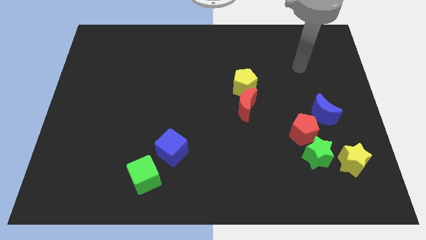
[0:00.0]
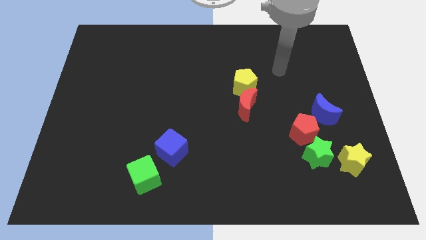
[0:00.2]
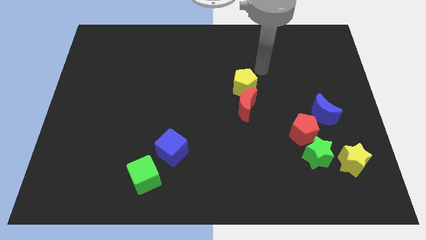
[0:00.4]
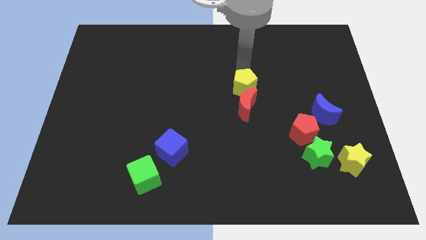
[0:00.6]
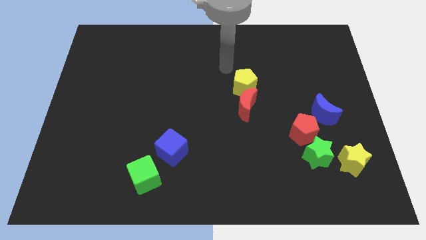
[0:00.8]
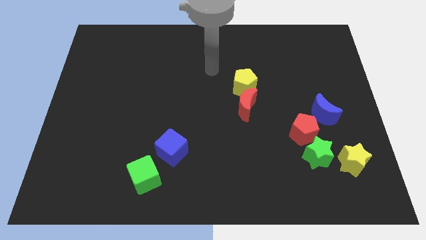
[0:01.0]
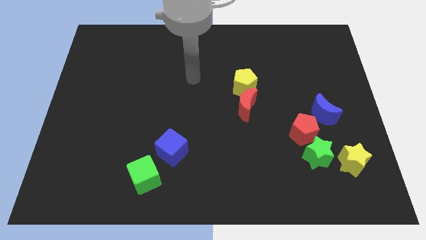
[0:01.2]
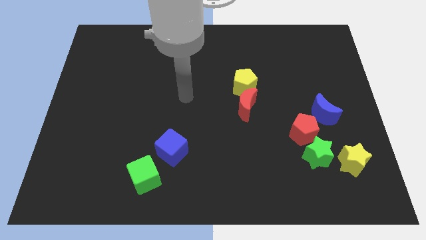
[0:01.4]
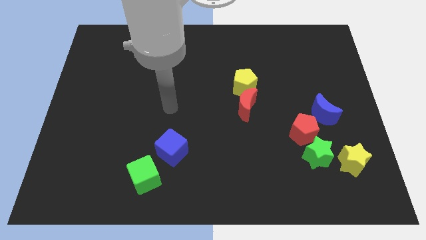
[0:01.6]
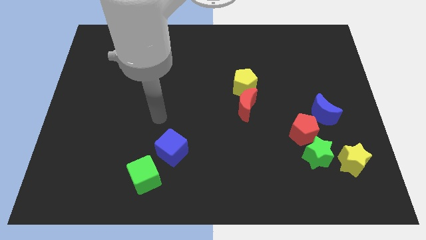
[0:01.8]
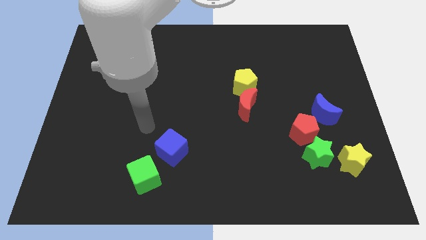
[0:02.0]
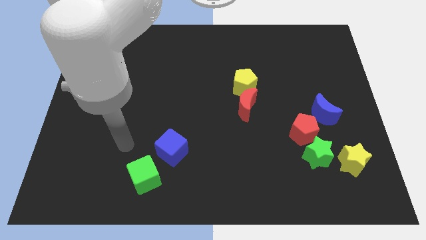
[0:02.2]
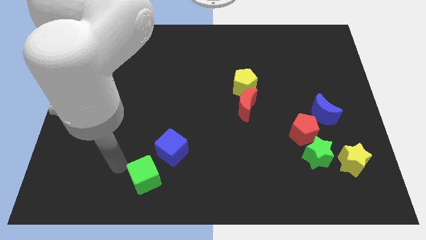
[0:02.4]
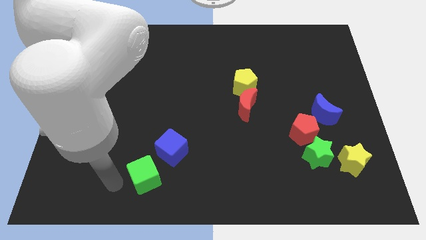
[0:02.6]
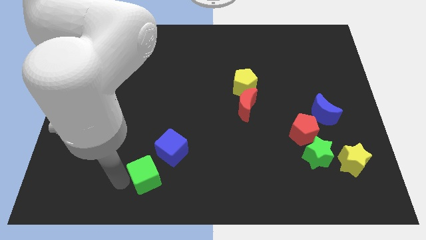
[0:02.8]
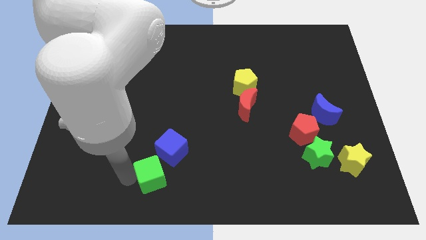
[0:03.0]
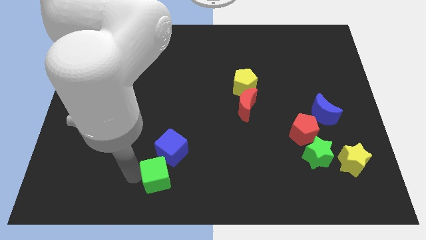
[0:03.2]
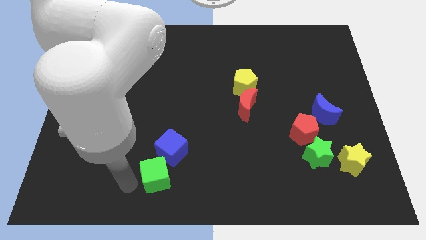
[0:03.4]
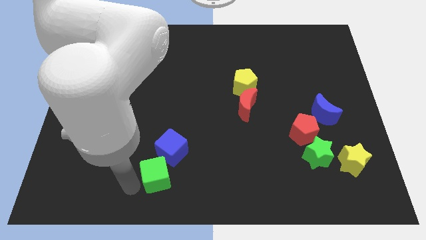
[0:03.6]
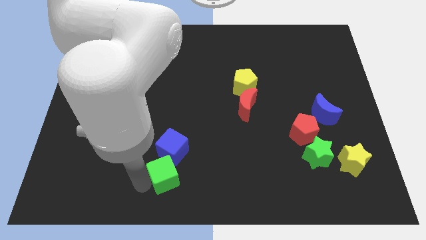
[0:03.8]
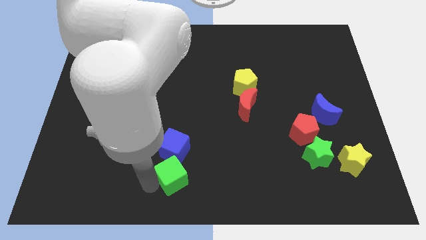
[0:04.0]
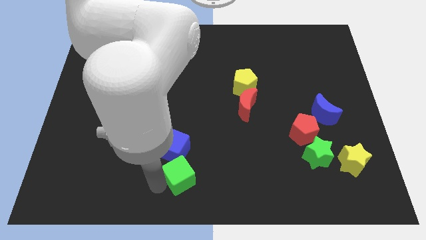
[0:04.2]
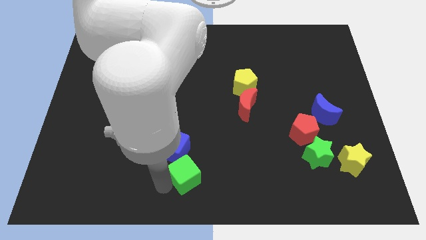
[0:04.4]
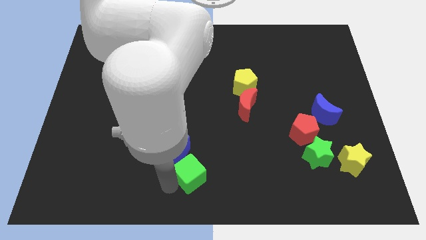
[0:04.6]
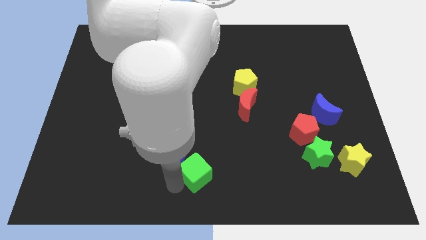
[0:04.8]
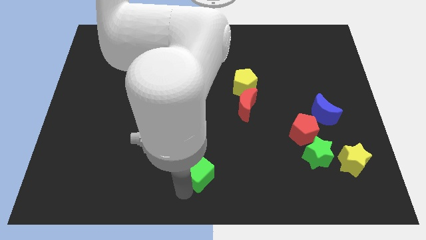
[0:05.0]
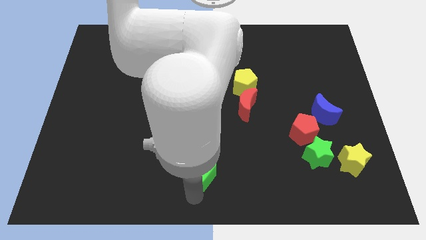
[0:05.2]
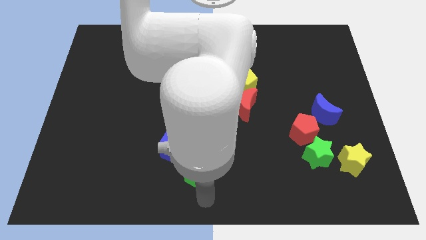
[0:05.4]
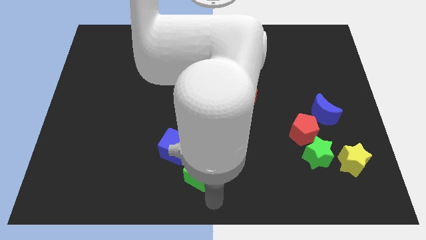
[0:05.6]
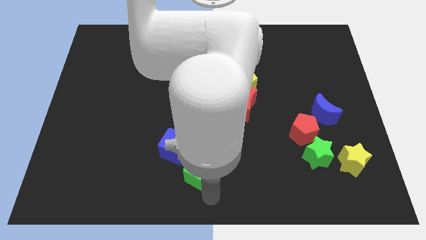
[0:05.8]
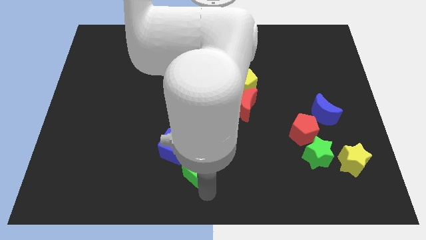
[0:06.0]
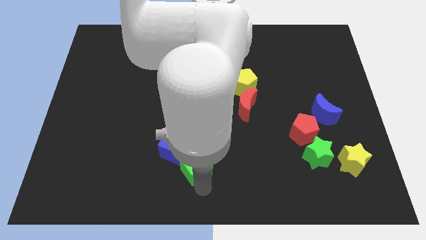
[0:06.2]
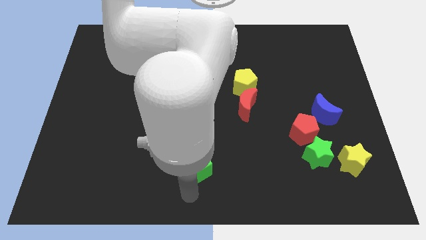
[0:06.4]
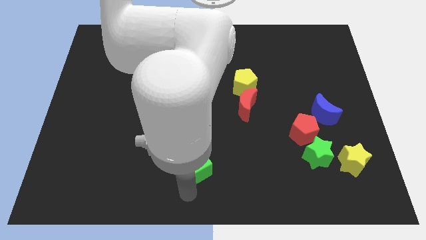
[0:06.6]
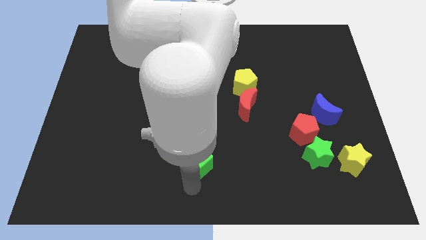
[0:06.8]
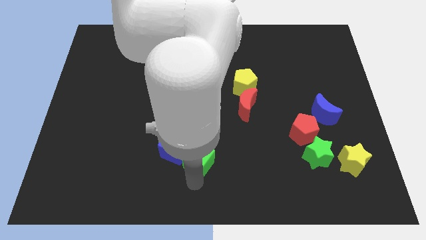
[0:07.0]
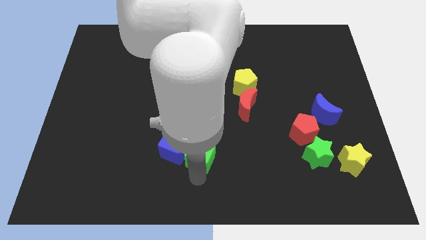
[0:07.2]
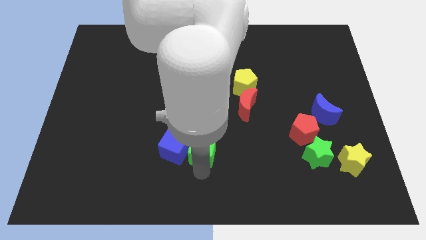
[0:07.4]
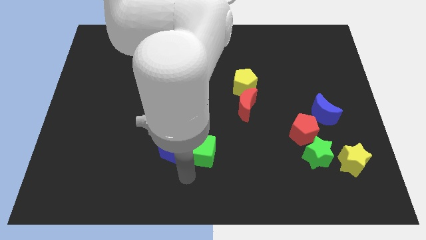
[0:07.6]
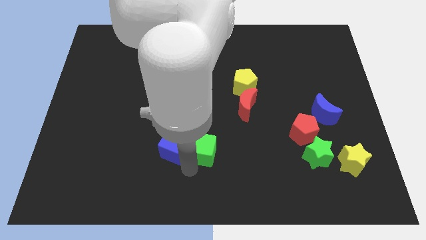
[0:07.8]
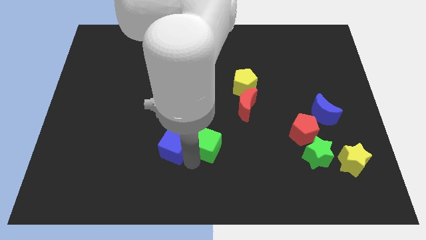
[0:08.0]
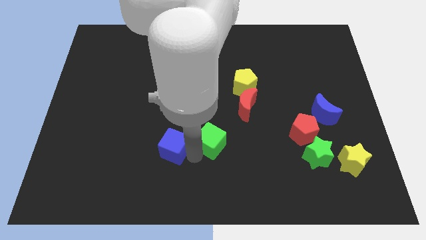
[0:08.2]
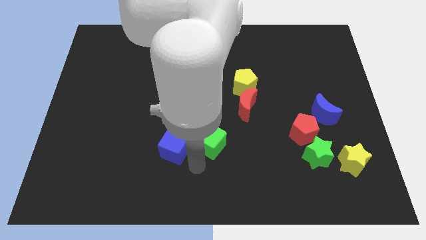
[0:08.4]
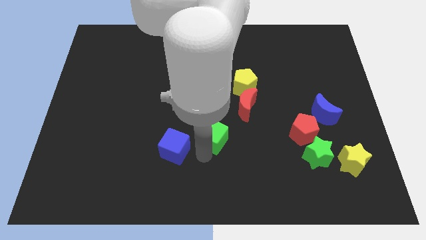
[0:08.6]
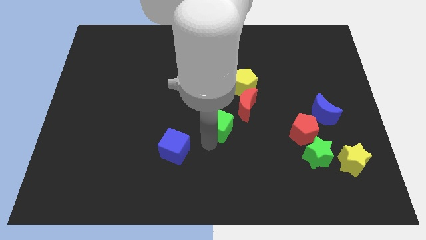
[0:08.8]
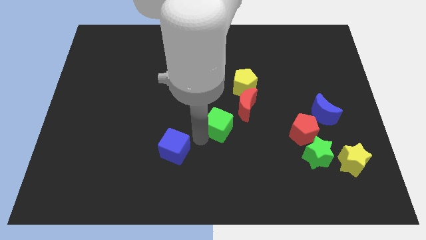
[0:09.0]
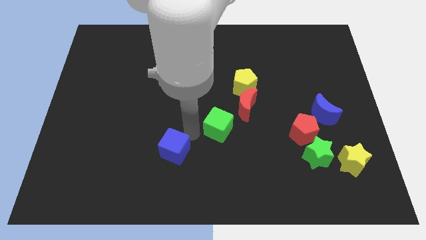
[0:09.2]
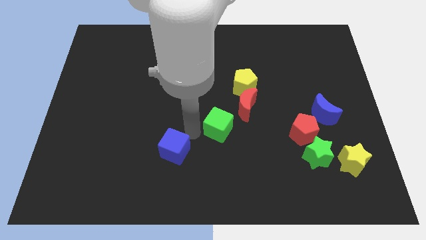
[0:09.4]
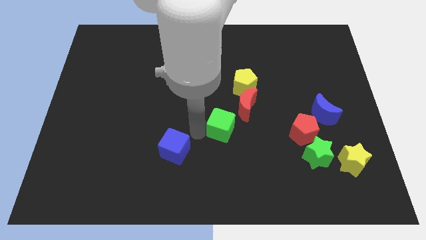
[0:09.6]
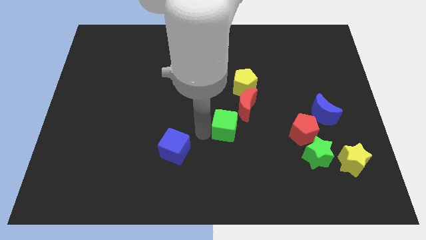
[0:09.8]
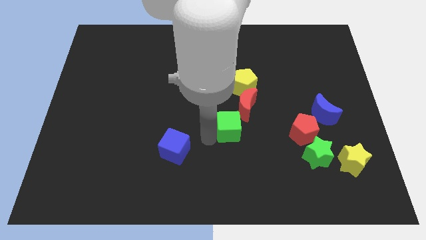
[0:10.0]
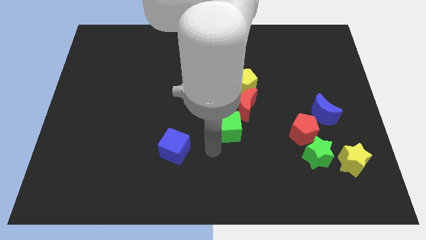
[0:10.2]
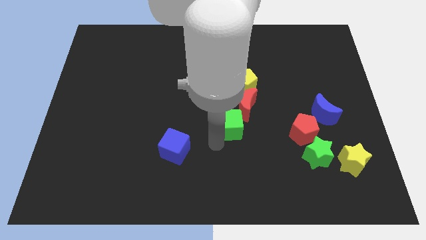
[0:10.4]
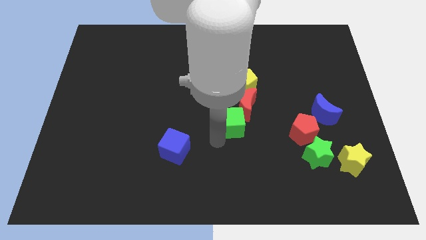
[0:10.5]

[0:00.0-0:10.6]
push the green cube close to the red moon

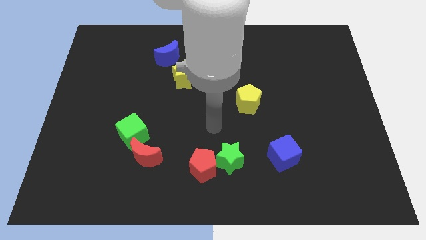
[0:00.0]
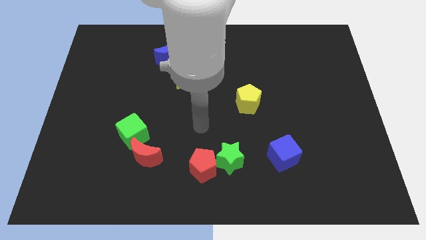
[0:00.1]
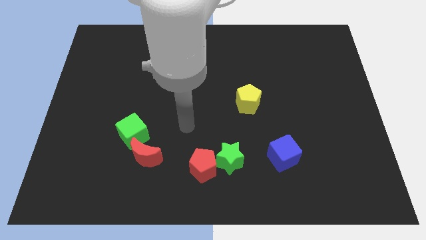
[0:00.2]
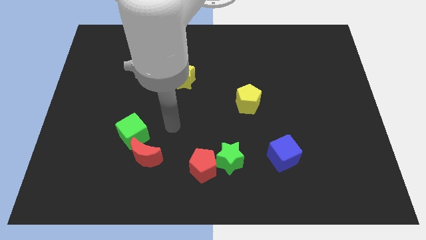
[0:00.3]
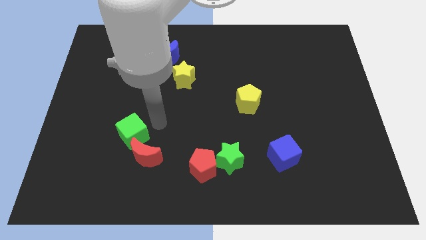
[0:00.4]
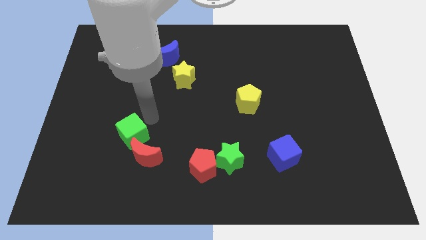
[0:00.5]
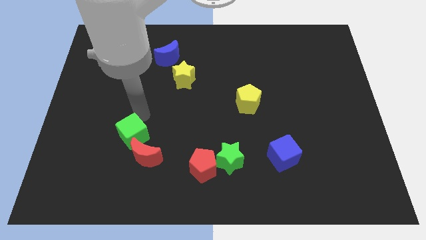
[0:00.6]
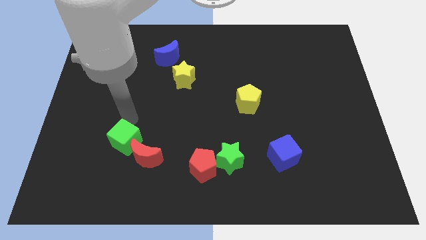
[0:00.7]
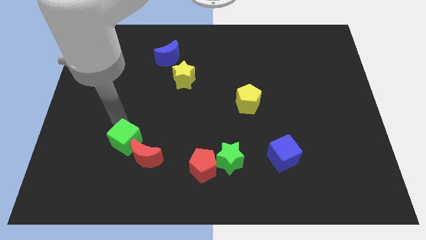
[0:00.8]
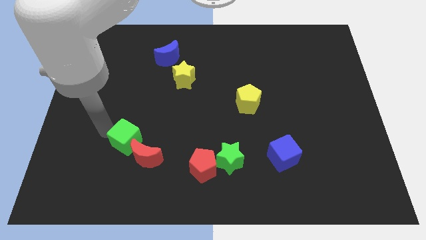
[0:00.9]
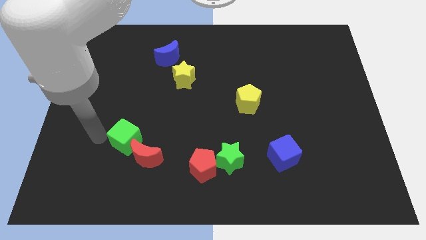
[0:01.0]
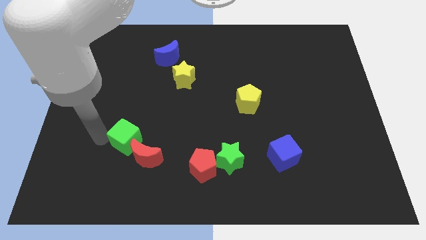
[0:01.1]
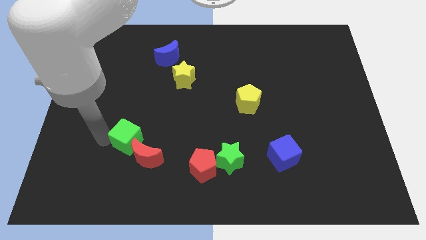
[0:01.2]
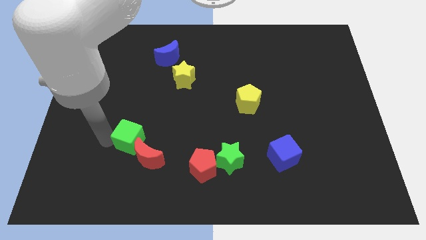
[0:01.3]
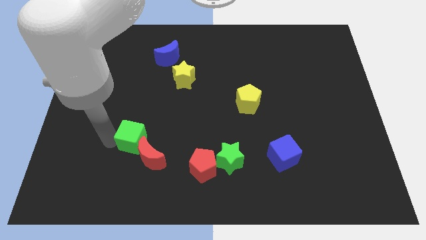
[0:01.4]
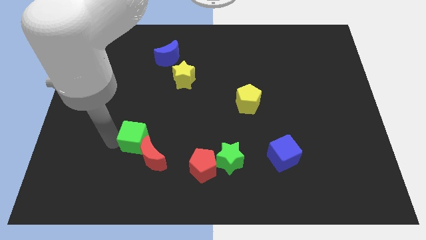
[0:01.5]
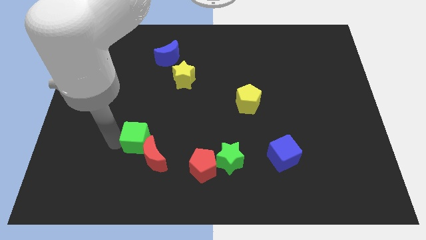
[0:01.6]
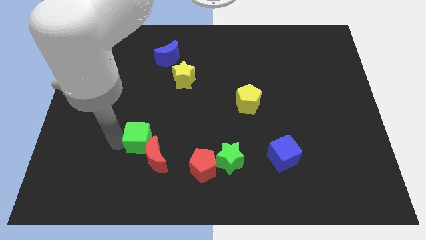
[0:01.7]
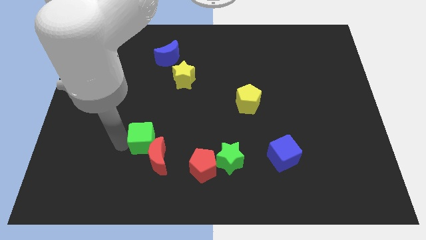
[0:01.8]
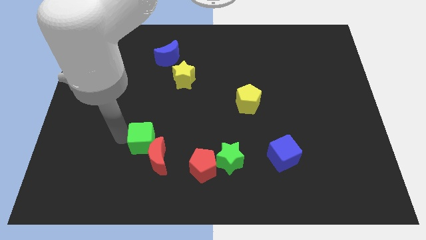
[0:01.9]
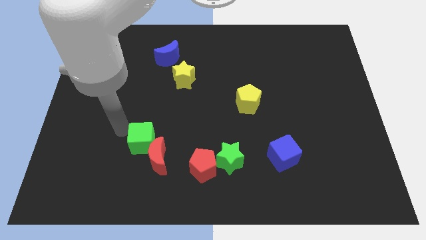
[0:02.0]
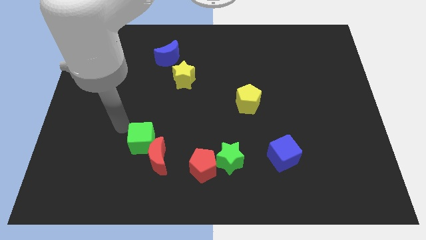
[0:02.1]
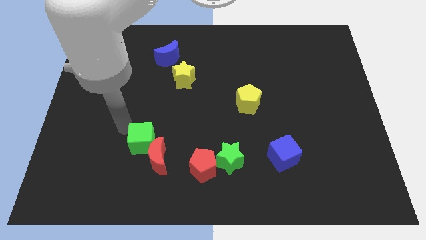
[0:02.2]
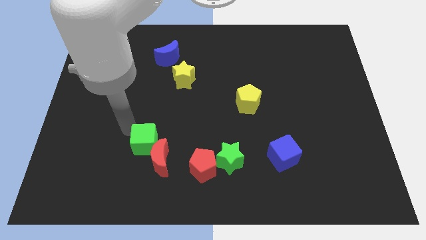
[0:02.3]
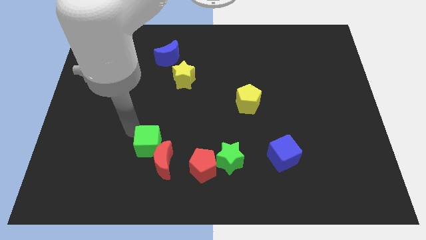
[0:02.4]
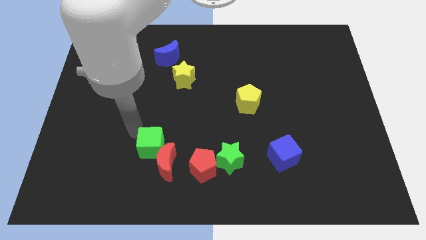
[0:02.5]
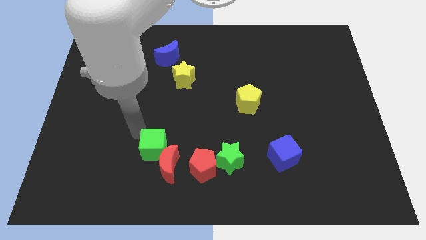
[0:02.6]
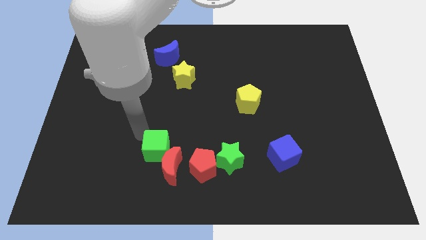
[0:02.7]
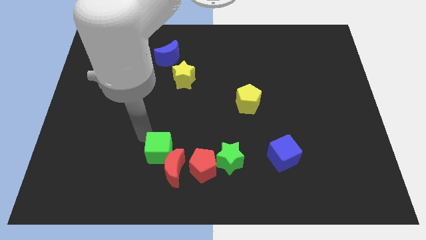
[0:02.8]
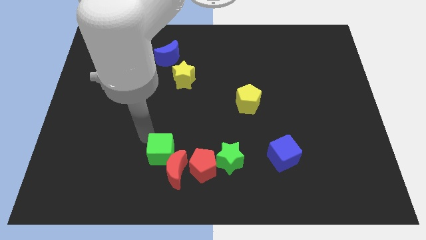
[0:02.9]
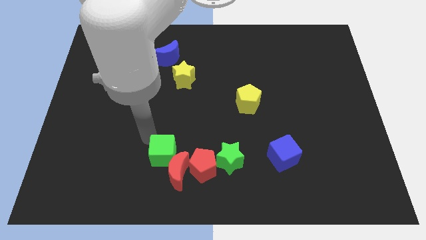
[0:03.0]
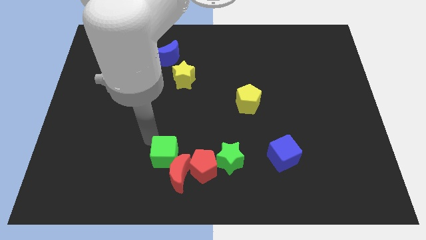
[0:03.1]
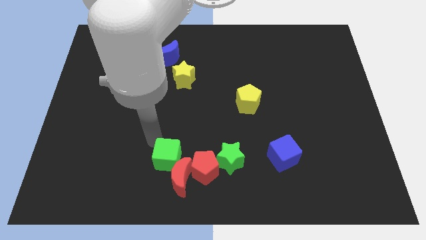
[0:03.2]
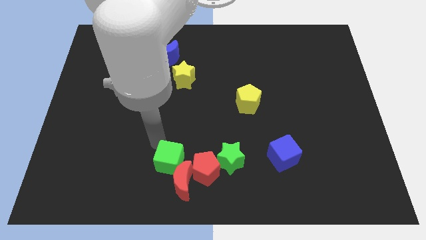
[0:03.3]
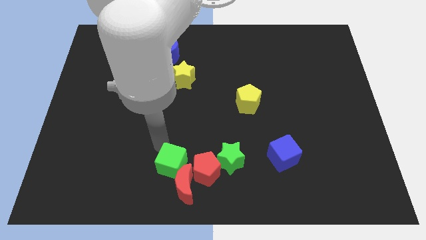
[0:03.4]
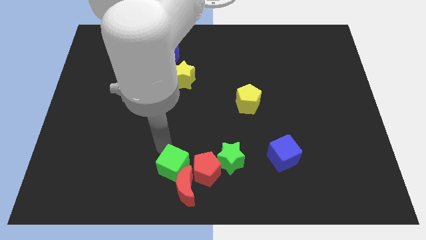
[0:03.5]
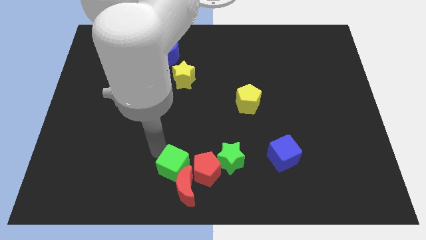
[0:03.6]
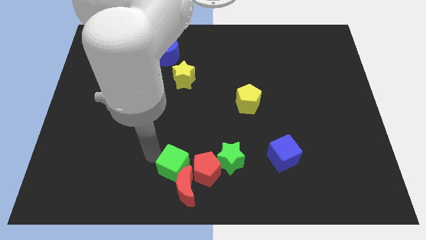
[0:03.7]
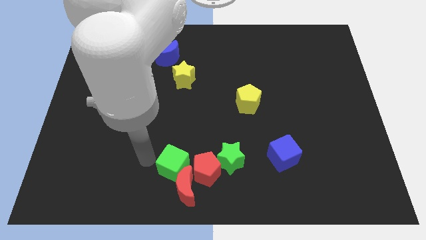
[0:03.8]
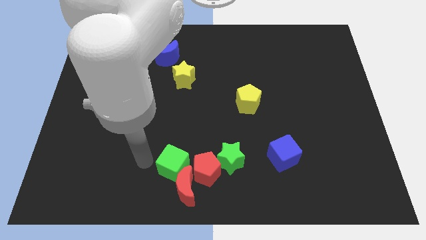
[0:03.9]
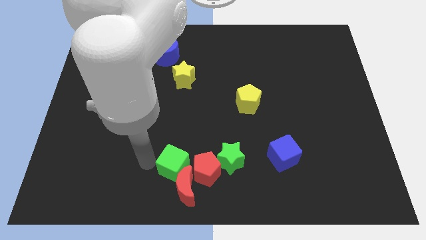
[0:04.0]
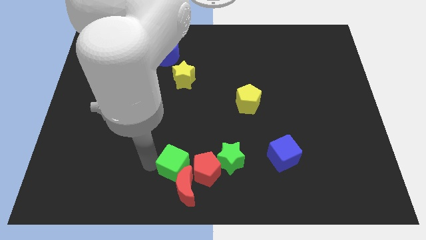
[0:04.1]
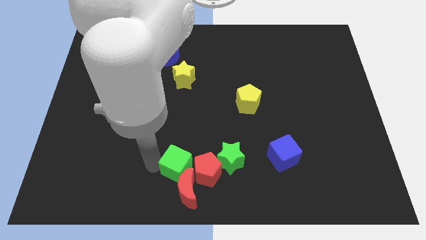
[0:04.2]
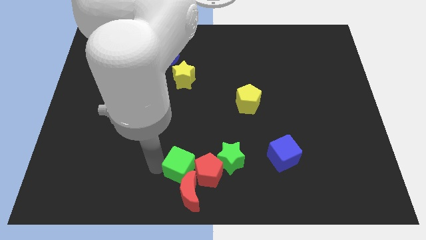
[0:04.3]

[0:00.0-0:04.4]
put the green cube to the red pentagon
